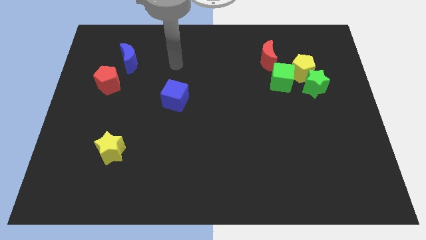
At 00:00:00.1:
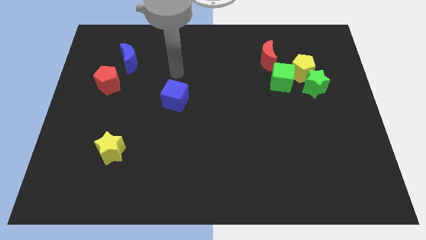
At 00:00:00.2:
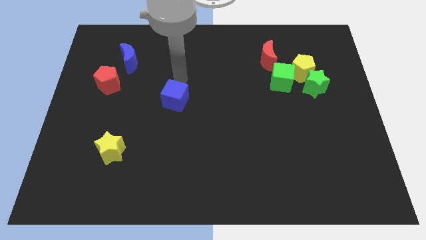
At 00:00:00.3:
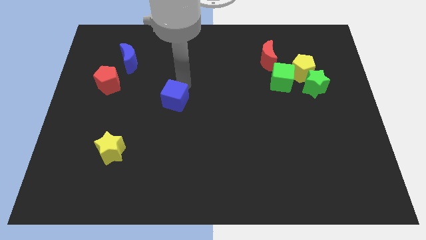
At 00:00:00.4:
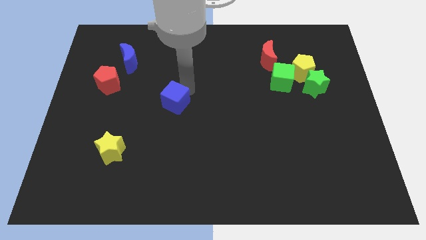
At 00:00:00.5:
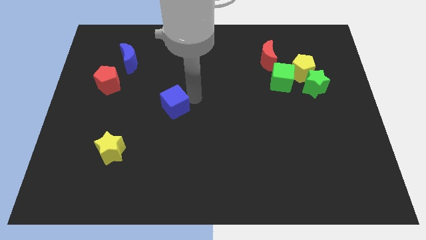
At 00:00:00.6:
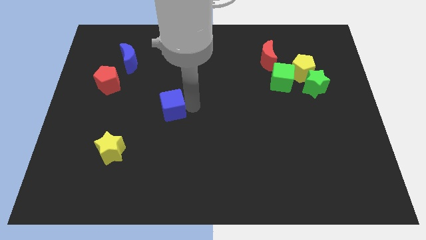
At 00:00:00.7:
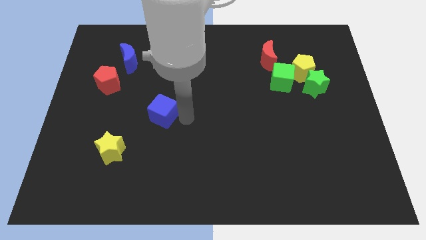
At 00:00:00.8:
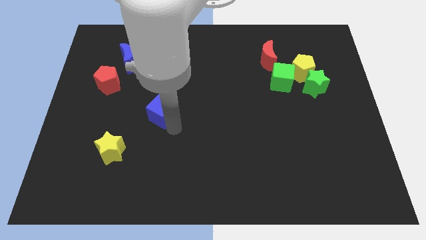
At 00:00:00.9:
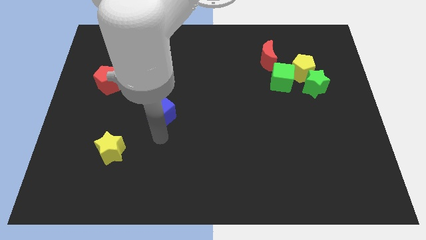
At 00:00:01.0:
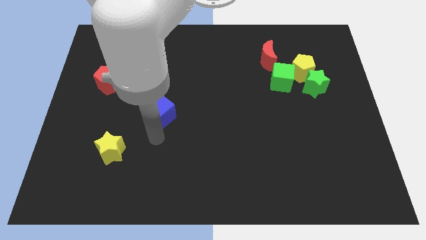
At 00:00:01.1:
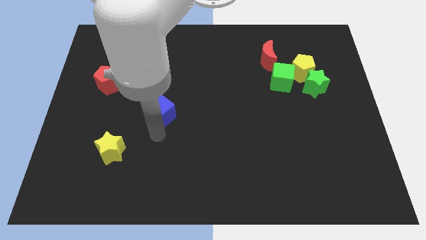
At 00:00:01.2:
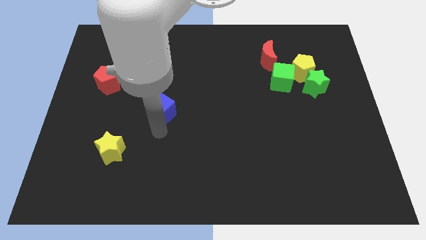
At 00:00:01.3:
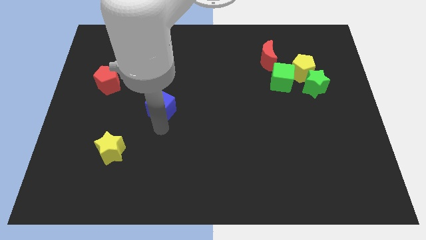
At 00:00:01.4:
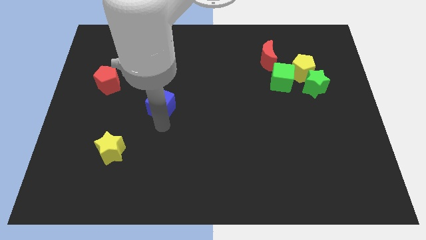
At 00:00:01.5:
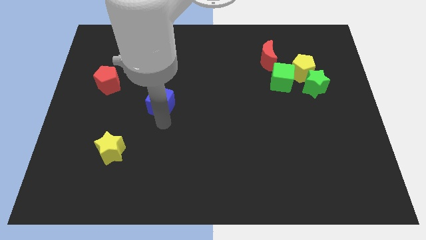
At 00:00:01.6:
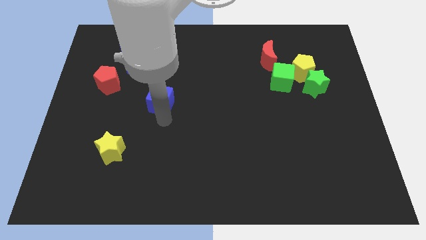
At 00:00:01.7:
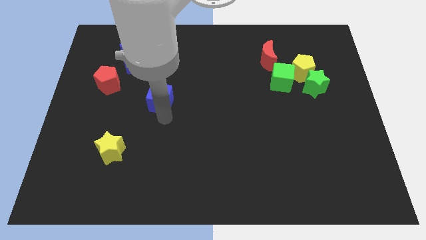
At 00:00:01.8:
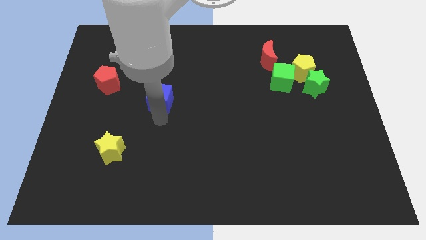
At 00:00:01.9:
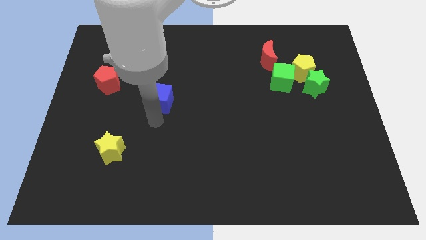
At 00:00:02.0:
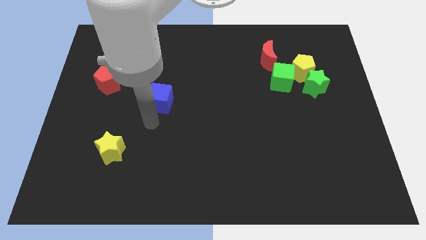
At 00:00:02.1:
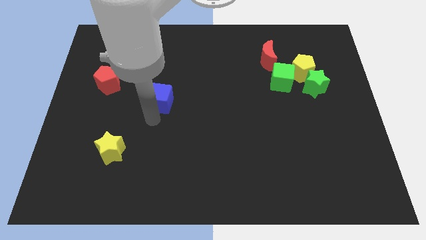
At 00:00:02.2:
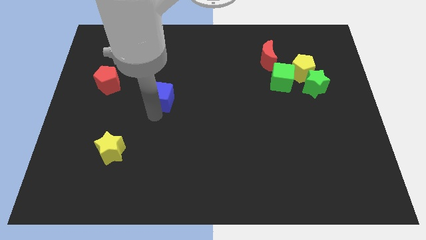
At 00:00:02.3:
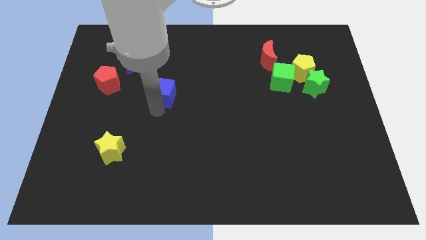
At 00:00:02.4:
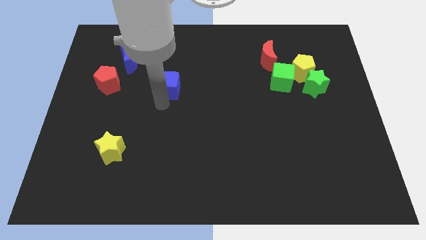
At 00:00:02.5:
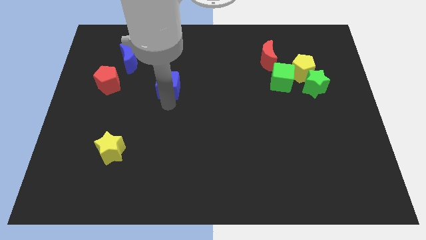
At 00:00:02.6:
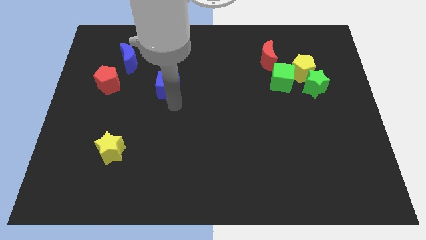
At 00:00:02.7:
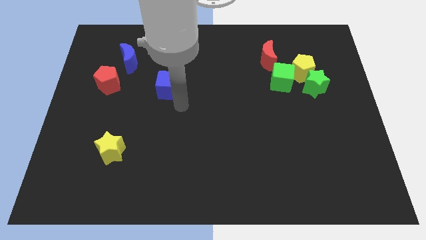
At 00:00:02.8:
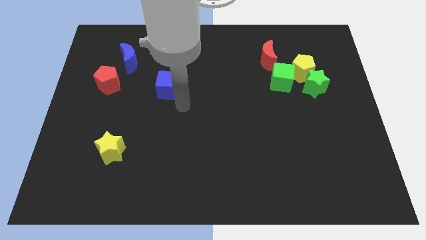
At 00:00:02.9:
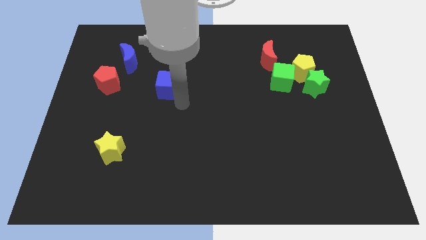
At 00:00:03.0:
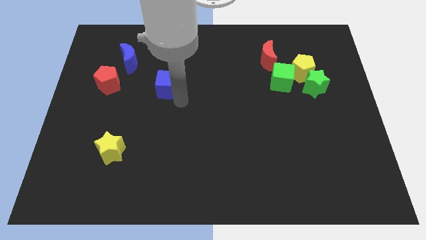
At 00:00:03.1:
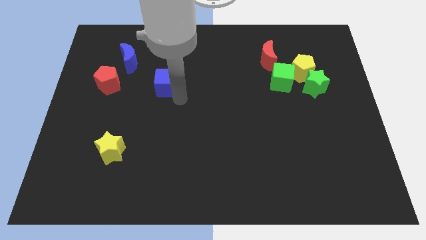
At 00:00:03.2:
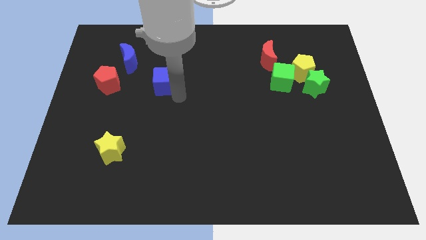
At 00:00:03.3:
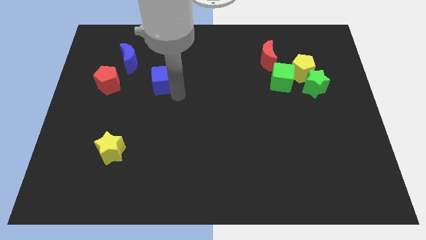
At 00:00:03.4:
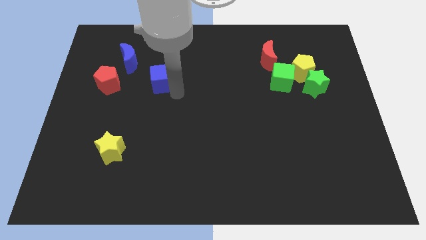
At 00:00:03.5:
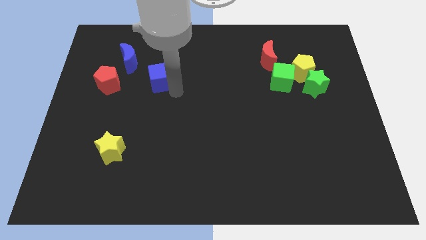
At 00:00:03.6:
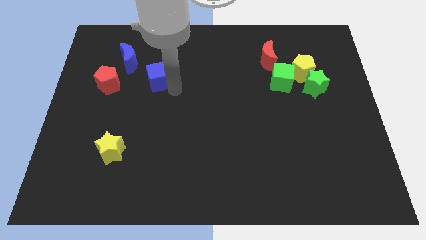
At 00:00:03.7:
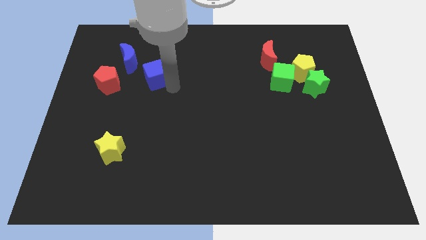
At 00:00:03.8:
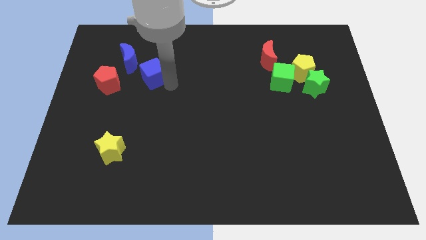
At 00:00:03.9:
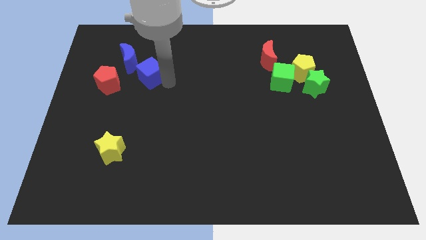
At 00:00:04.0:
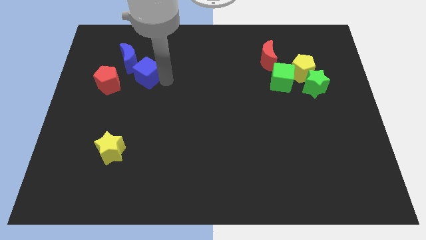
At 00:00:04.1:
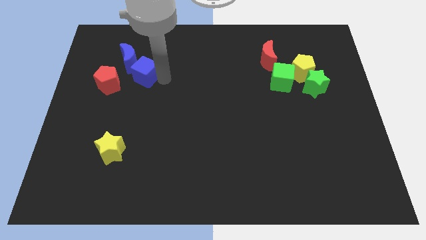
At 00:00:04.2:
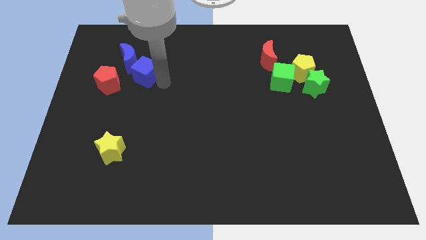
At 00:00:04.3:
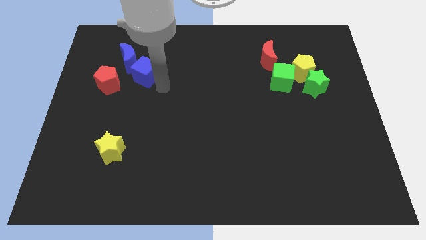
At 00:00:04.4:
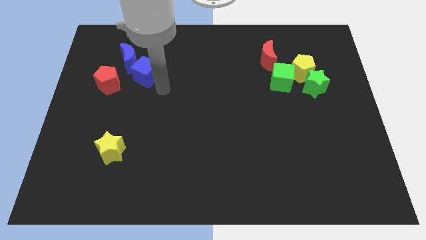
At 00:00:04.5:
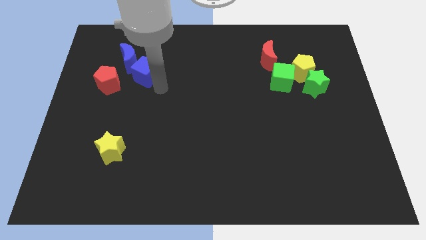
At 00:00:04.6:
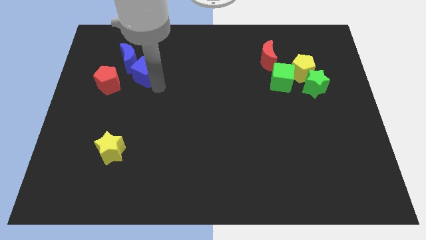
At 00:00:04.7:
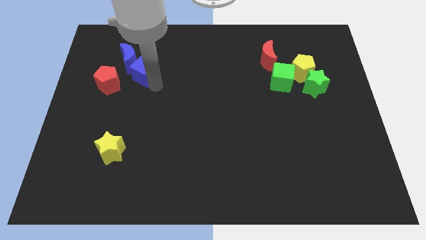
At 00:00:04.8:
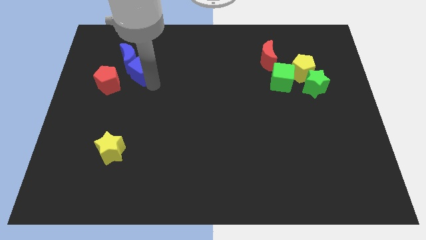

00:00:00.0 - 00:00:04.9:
push the blue cube to the blue moon

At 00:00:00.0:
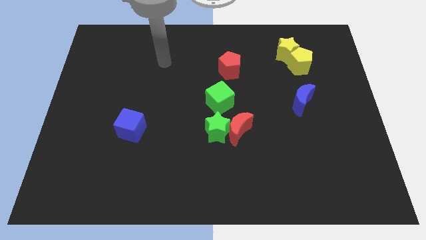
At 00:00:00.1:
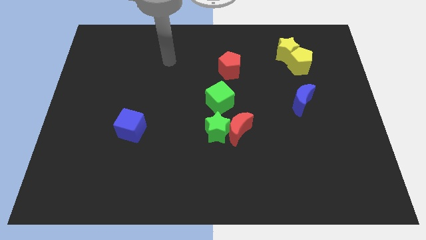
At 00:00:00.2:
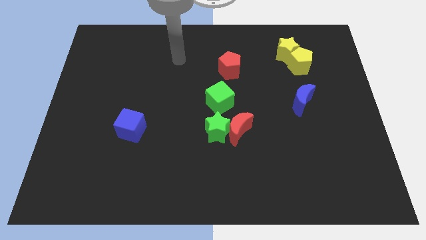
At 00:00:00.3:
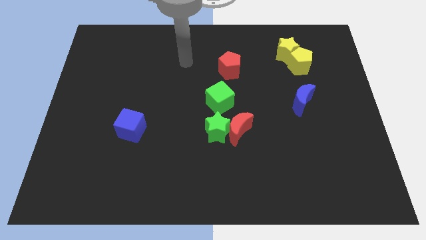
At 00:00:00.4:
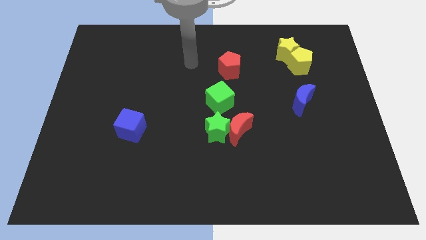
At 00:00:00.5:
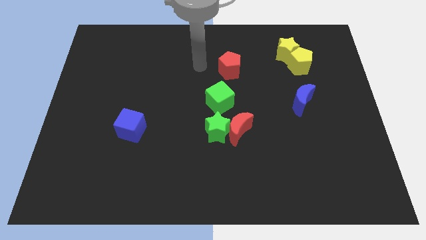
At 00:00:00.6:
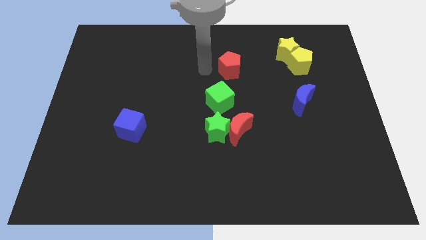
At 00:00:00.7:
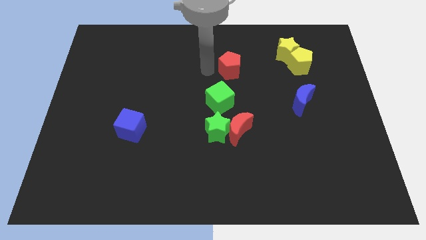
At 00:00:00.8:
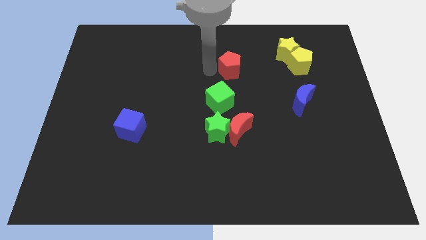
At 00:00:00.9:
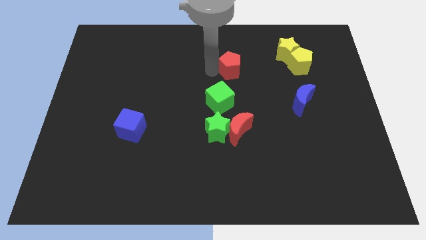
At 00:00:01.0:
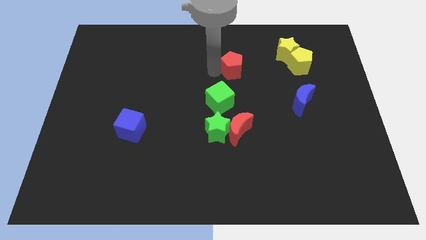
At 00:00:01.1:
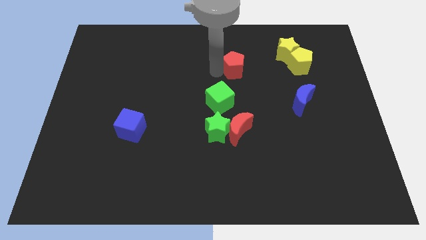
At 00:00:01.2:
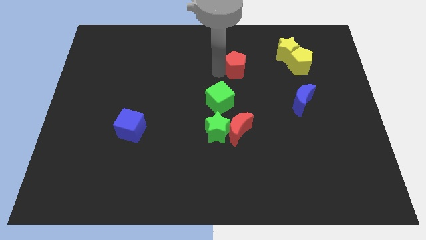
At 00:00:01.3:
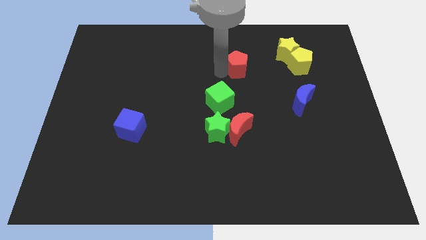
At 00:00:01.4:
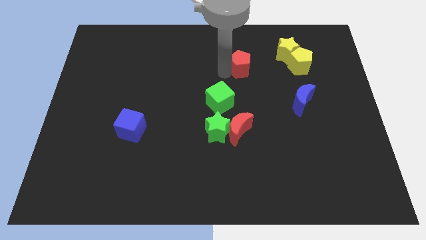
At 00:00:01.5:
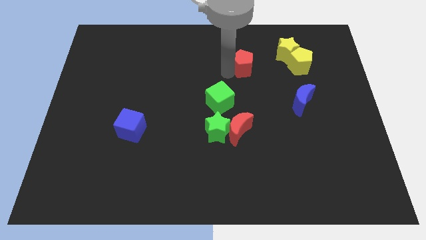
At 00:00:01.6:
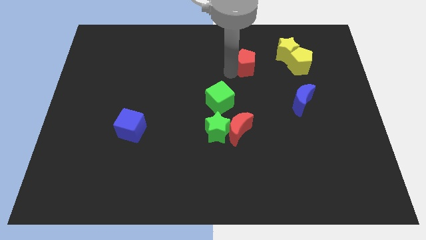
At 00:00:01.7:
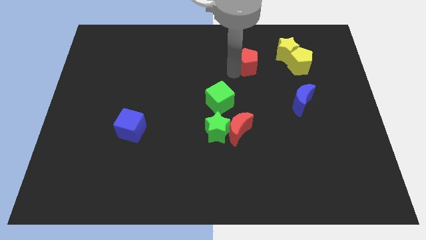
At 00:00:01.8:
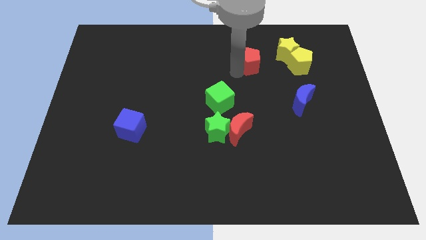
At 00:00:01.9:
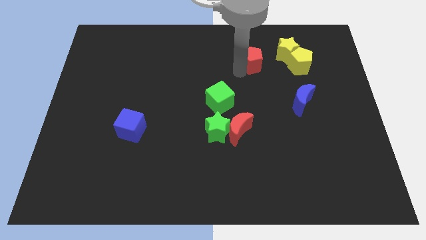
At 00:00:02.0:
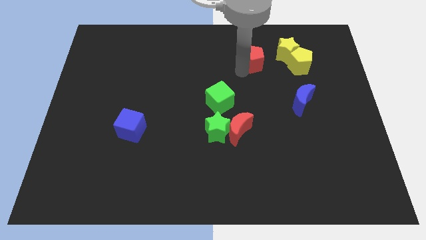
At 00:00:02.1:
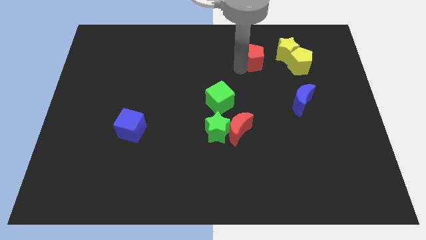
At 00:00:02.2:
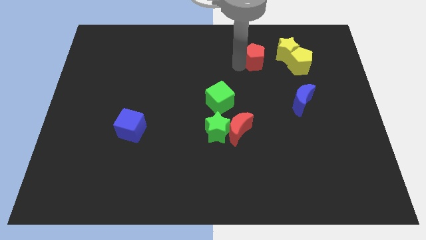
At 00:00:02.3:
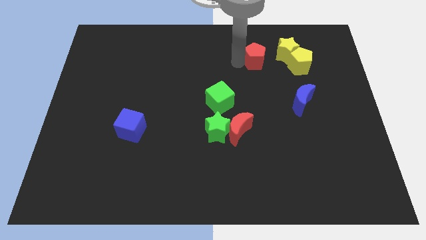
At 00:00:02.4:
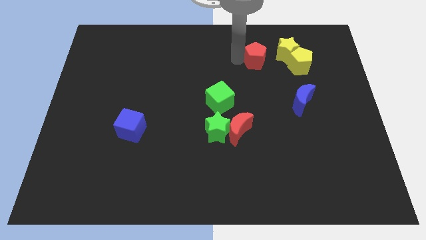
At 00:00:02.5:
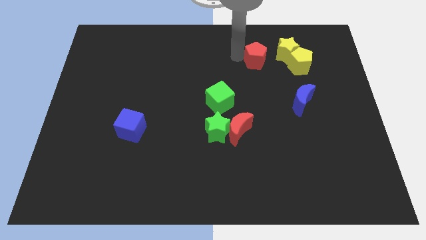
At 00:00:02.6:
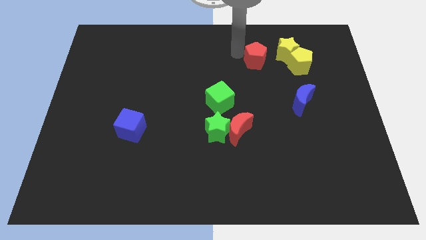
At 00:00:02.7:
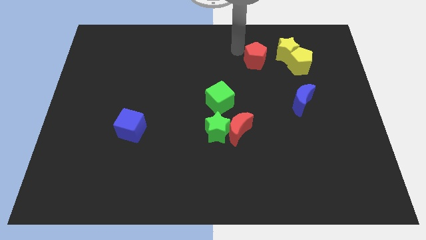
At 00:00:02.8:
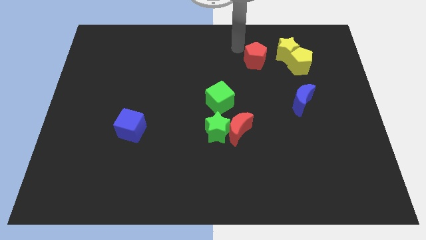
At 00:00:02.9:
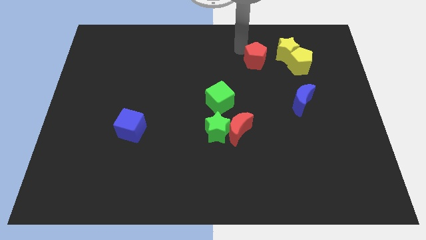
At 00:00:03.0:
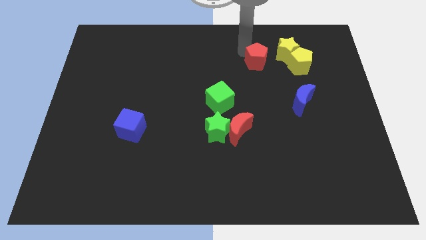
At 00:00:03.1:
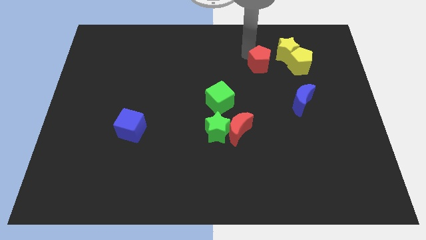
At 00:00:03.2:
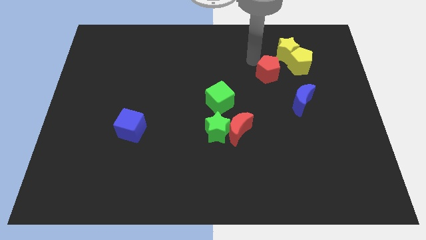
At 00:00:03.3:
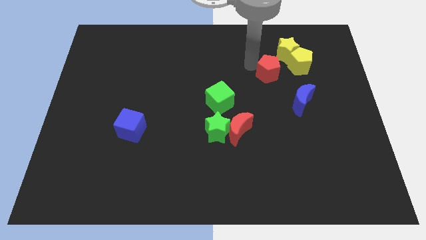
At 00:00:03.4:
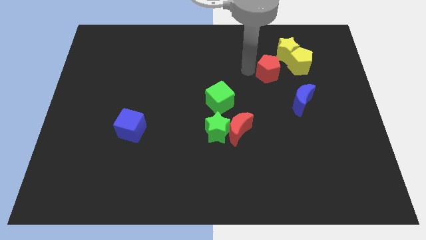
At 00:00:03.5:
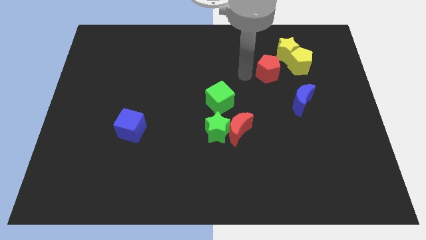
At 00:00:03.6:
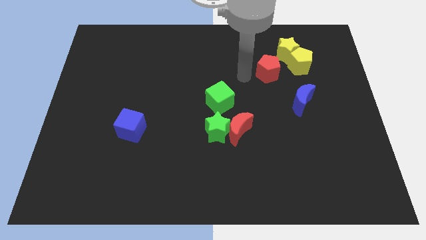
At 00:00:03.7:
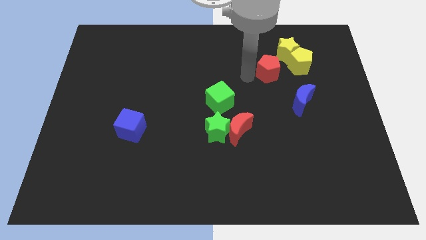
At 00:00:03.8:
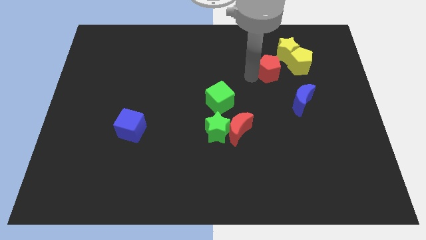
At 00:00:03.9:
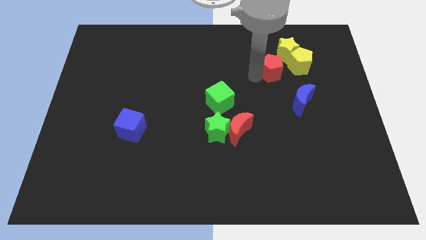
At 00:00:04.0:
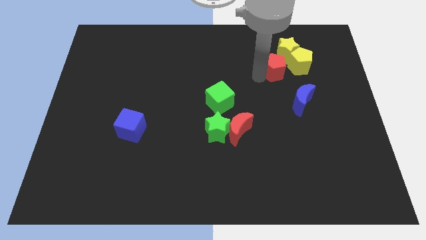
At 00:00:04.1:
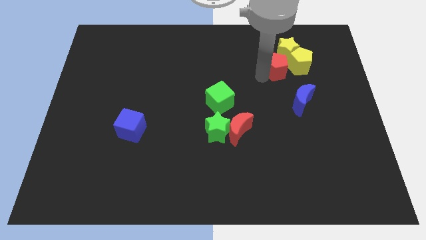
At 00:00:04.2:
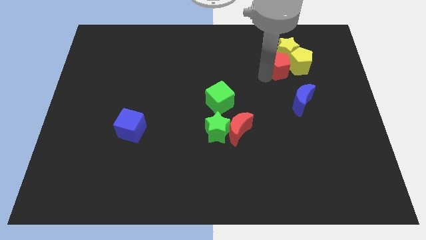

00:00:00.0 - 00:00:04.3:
push the red pentagon close to the yellow pentagon
